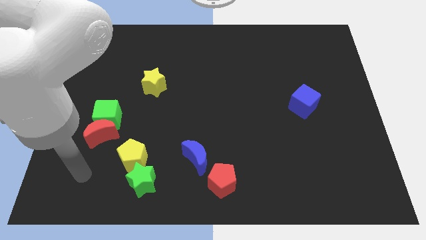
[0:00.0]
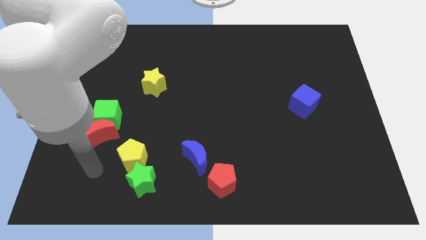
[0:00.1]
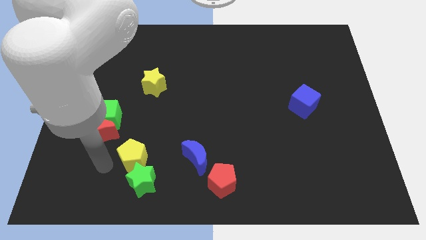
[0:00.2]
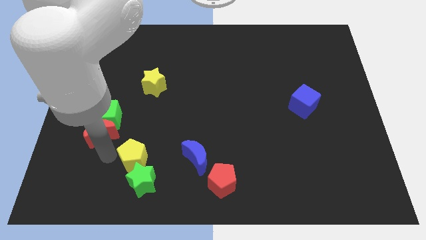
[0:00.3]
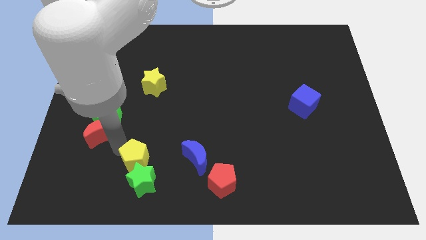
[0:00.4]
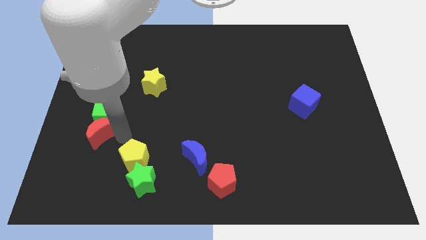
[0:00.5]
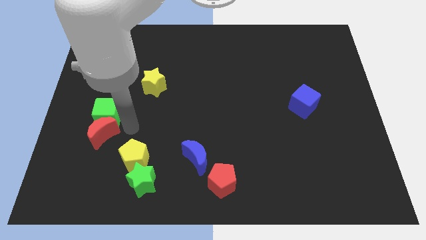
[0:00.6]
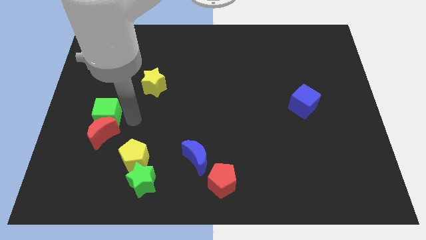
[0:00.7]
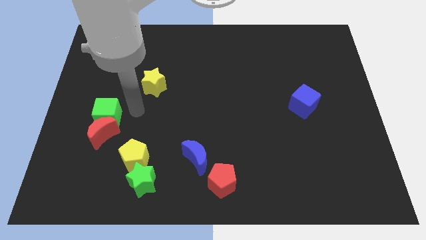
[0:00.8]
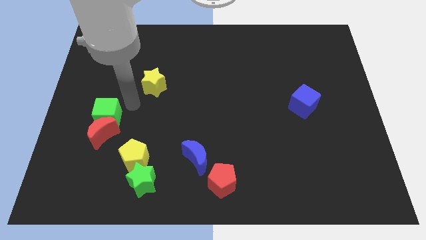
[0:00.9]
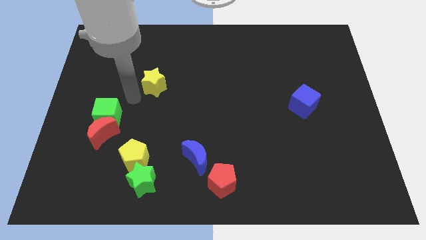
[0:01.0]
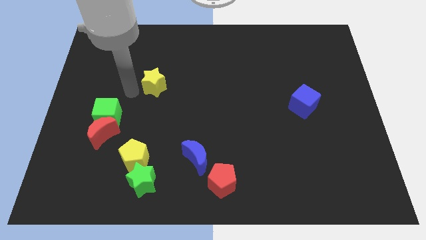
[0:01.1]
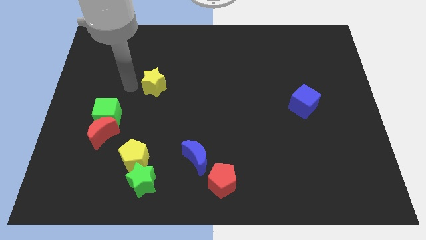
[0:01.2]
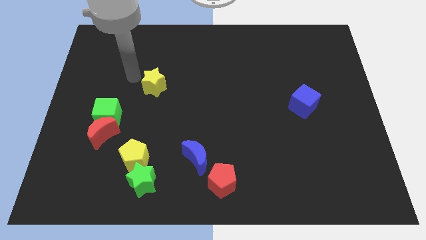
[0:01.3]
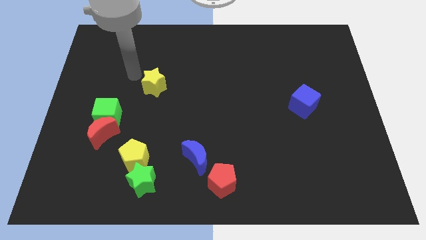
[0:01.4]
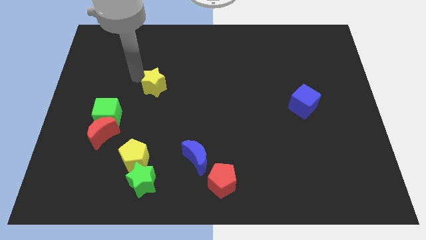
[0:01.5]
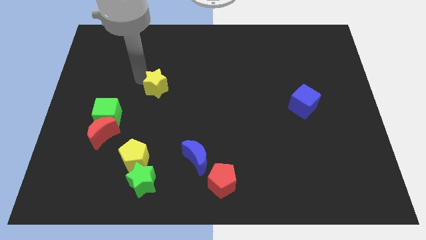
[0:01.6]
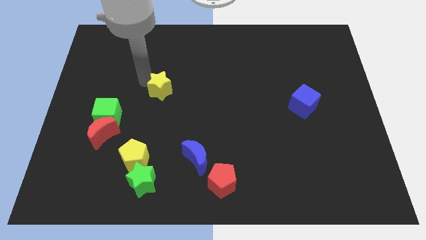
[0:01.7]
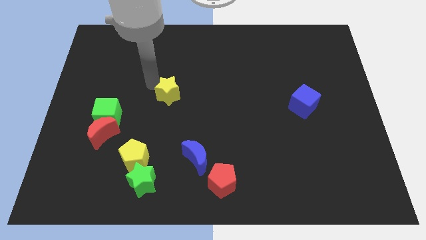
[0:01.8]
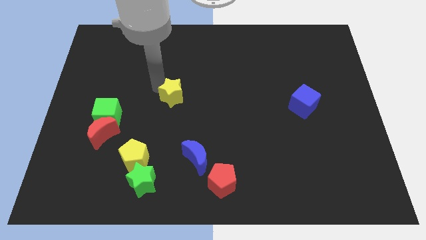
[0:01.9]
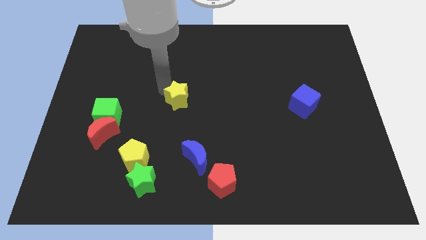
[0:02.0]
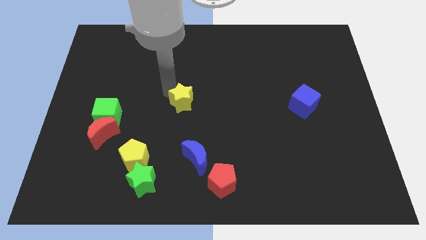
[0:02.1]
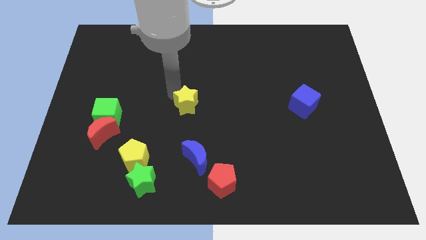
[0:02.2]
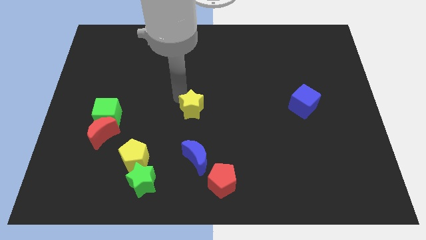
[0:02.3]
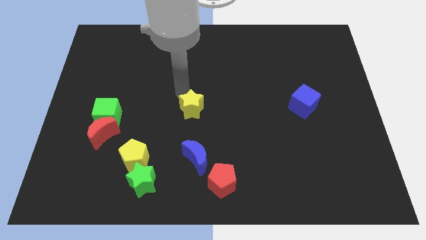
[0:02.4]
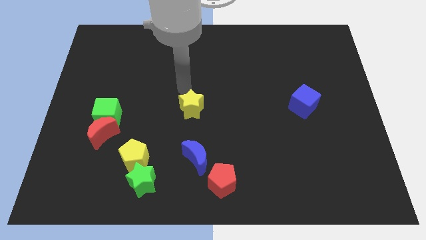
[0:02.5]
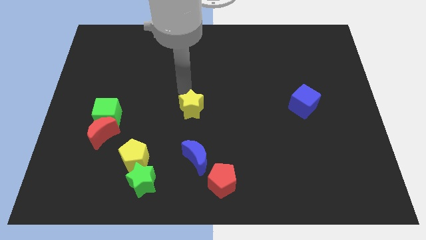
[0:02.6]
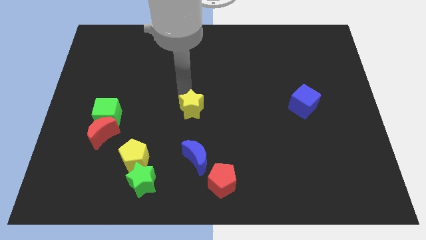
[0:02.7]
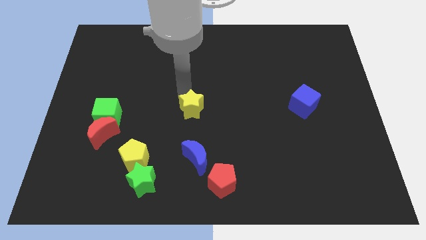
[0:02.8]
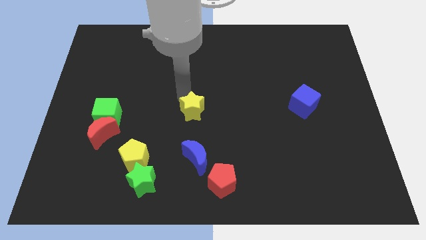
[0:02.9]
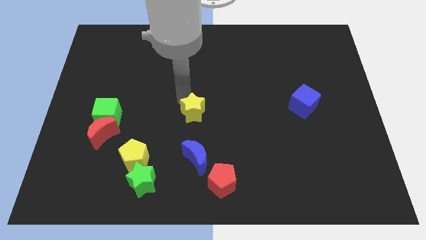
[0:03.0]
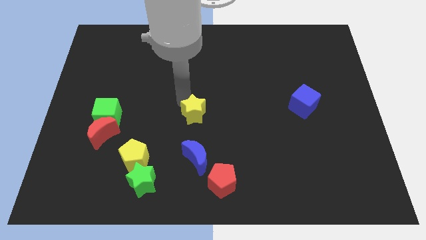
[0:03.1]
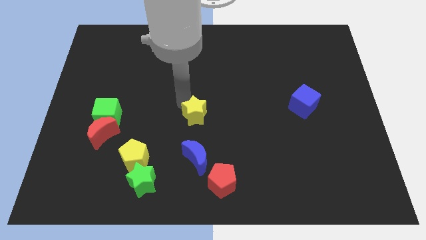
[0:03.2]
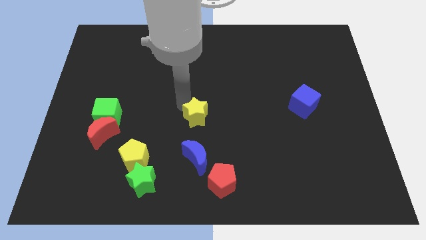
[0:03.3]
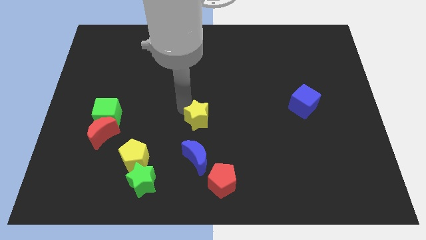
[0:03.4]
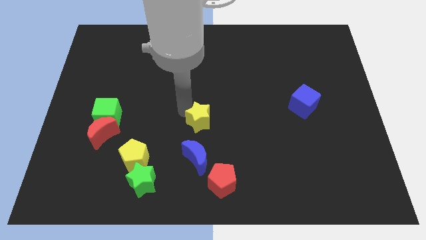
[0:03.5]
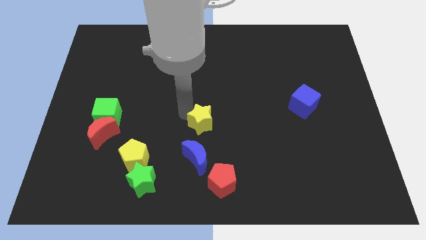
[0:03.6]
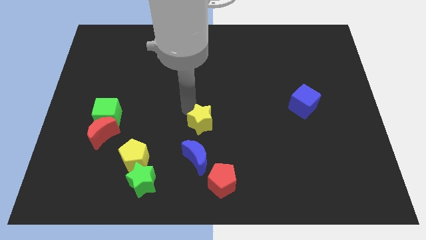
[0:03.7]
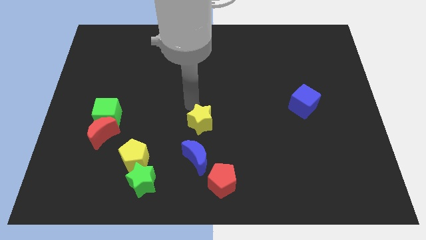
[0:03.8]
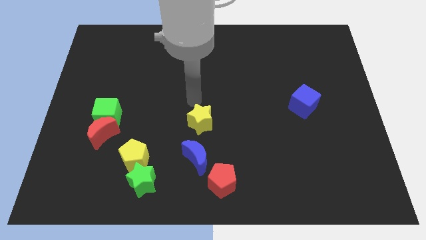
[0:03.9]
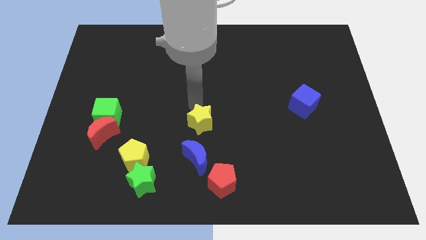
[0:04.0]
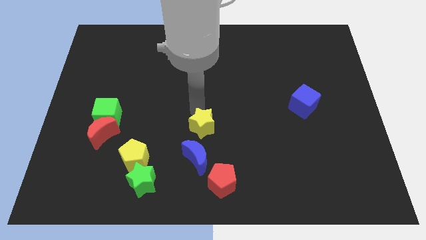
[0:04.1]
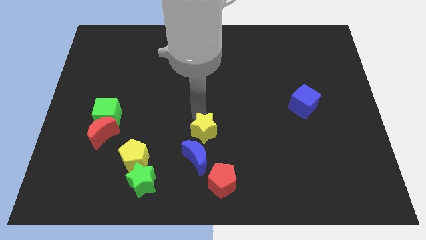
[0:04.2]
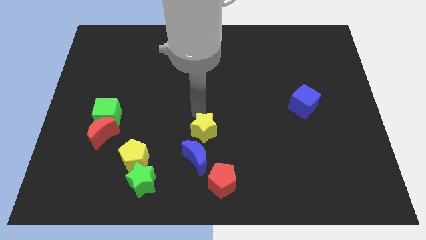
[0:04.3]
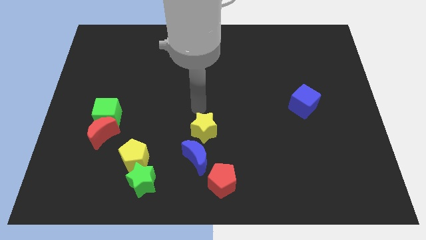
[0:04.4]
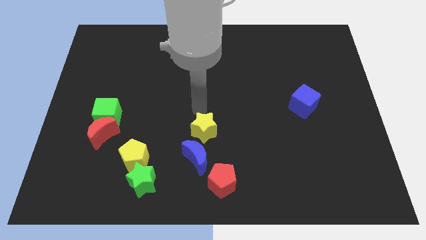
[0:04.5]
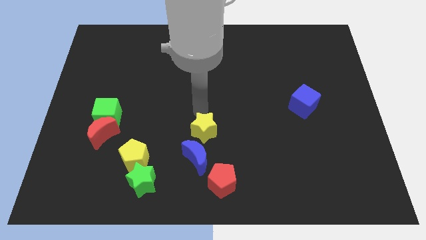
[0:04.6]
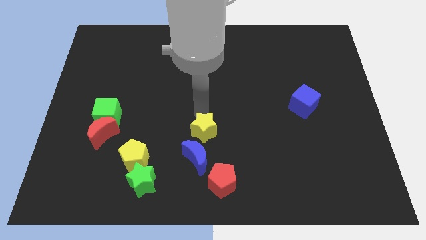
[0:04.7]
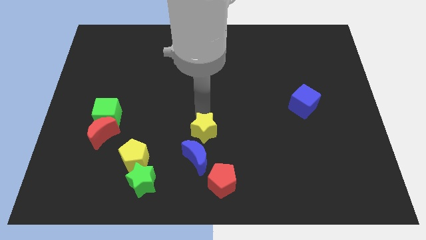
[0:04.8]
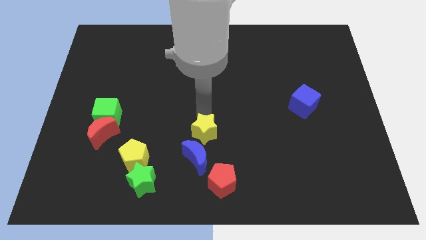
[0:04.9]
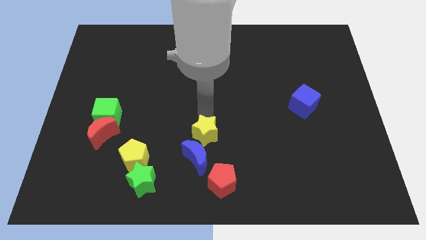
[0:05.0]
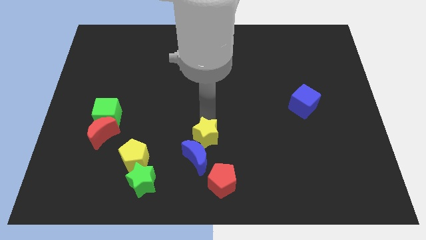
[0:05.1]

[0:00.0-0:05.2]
move the yellow star down and then to the right

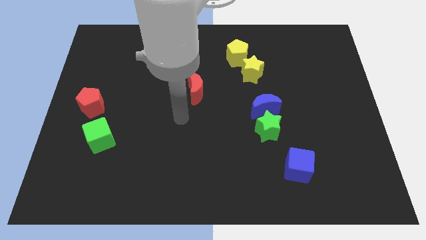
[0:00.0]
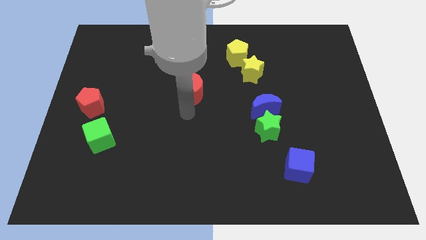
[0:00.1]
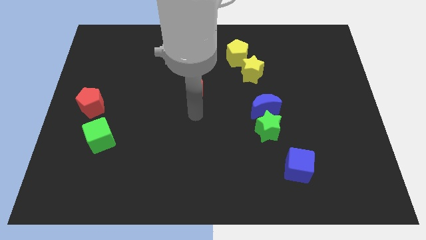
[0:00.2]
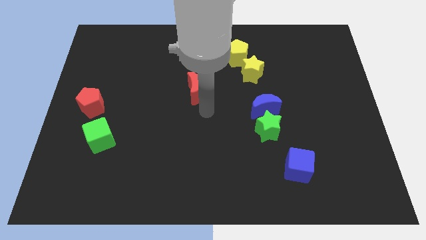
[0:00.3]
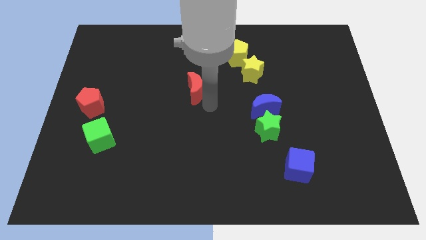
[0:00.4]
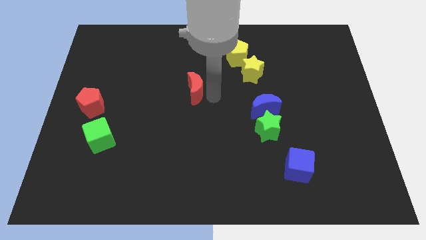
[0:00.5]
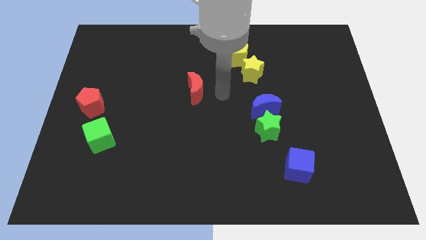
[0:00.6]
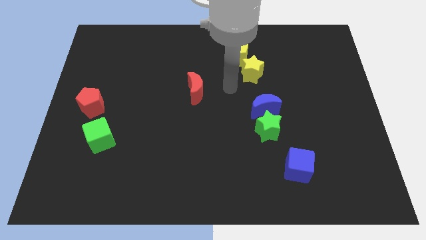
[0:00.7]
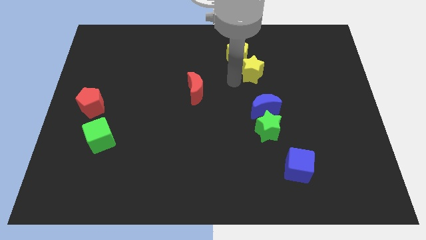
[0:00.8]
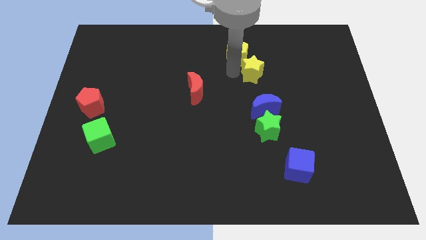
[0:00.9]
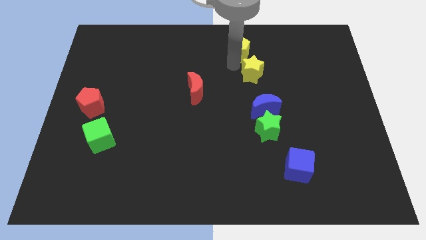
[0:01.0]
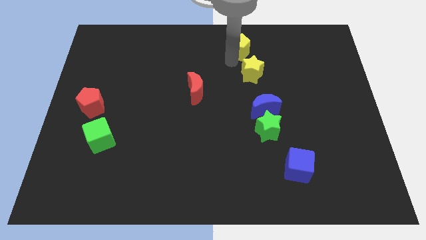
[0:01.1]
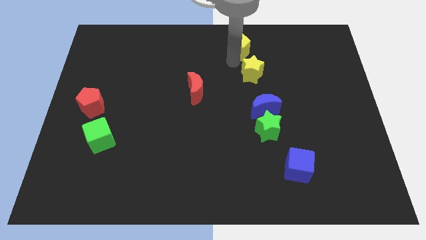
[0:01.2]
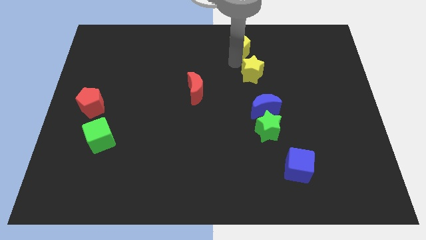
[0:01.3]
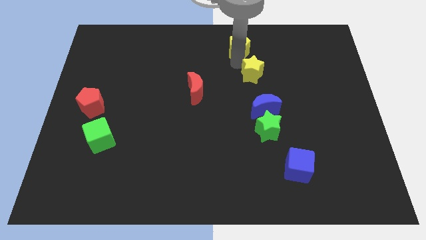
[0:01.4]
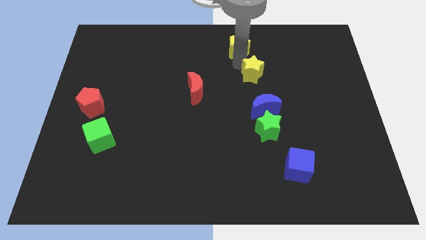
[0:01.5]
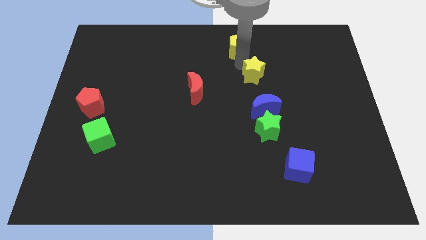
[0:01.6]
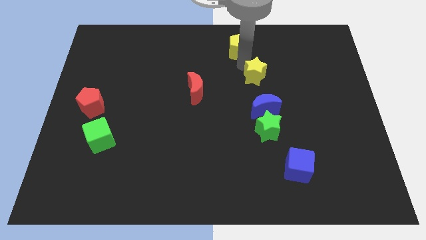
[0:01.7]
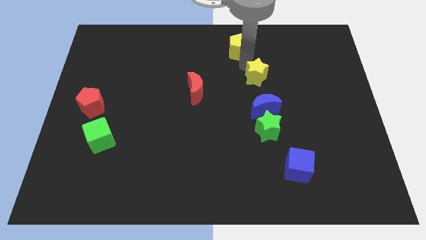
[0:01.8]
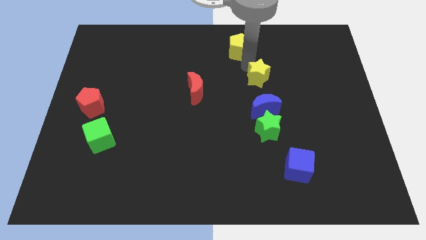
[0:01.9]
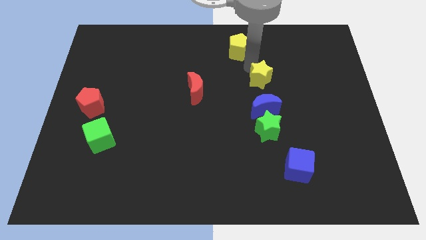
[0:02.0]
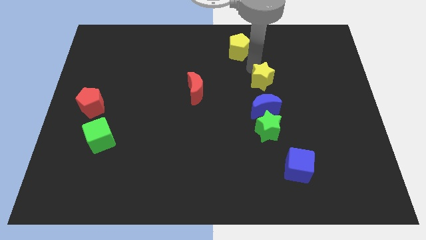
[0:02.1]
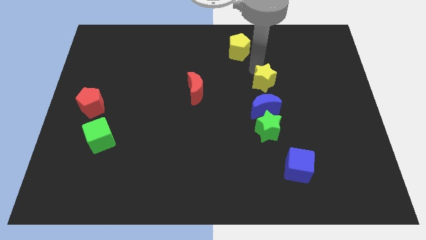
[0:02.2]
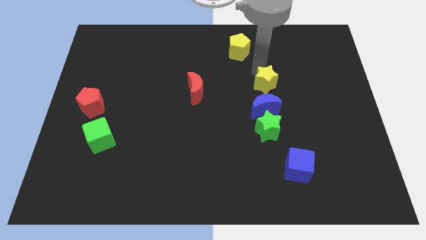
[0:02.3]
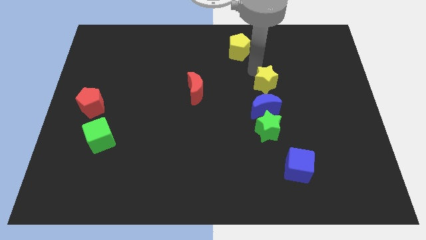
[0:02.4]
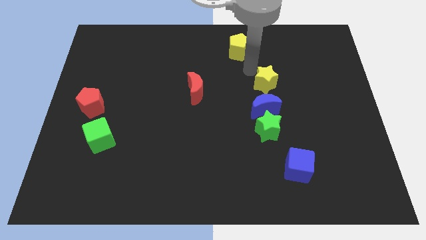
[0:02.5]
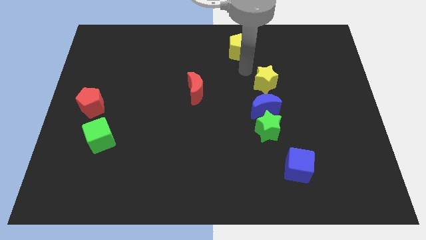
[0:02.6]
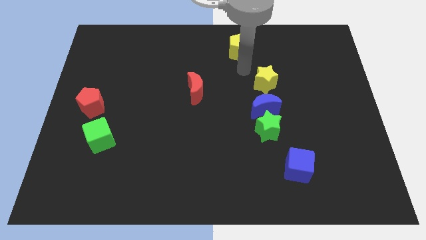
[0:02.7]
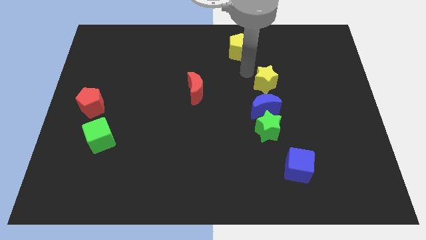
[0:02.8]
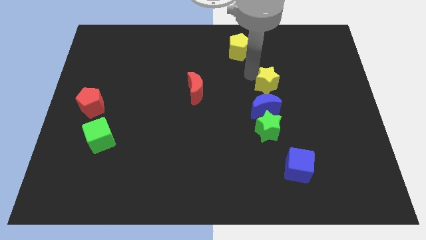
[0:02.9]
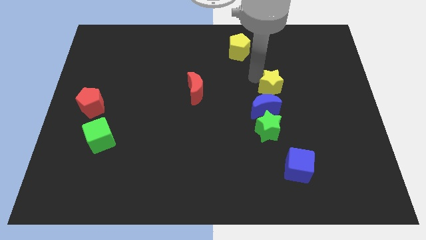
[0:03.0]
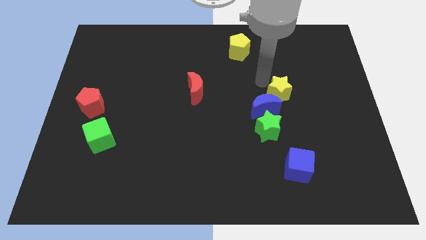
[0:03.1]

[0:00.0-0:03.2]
slide the yellow star diagonally downwards and to the right a little
